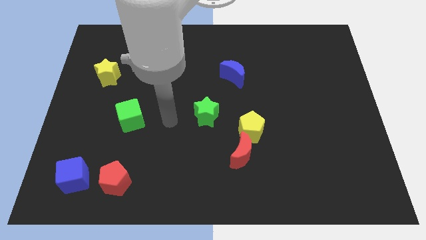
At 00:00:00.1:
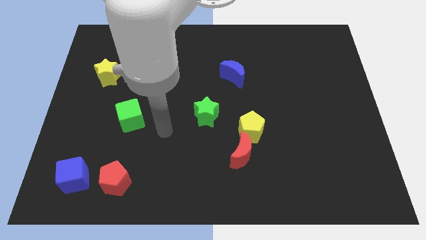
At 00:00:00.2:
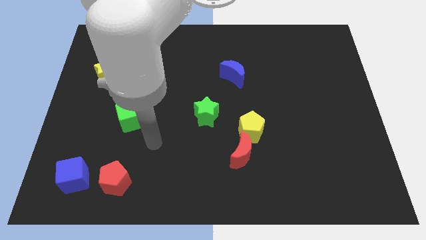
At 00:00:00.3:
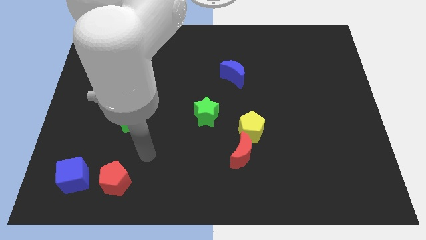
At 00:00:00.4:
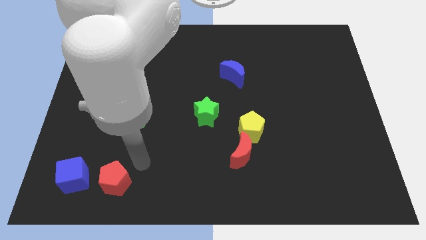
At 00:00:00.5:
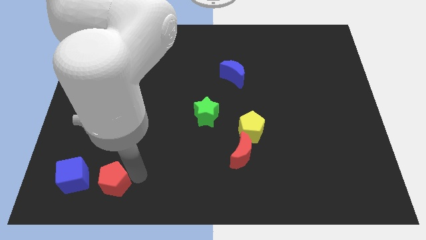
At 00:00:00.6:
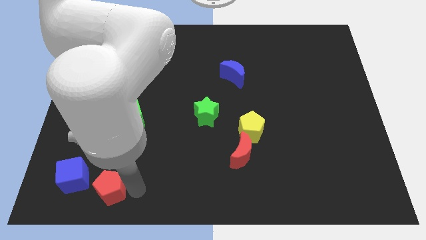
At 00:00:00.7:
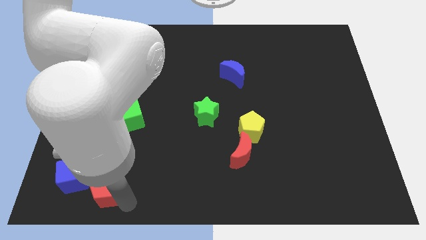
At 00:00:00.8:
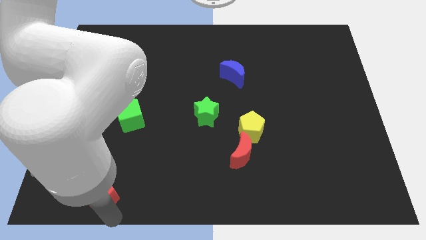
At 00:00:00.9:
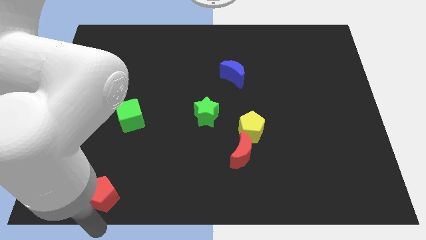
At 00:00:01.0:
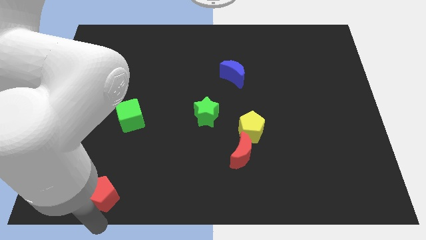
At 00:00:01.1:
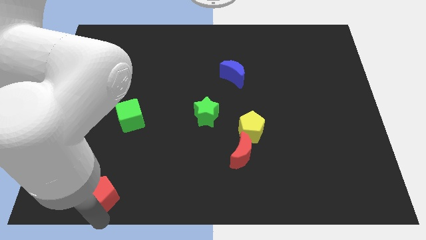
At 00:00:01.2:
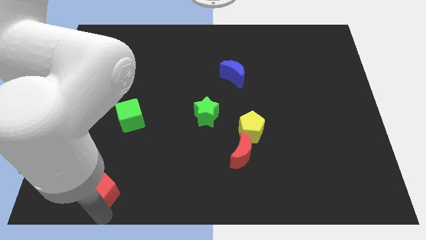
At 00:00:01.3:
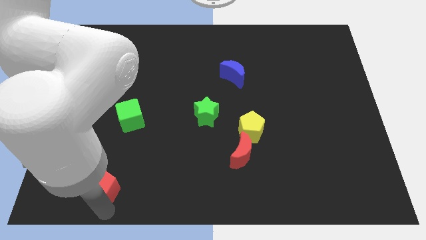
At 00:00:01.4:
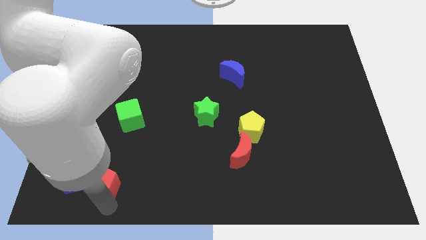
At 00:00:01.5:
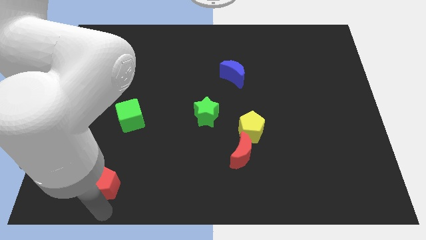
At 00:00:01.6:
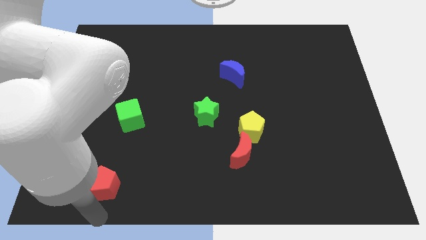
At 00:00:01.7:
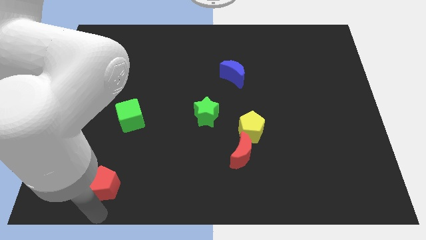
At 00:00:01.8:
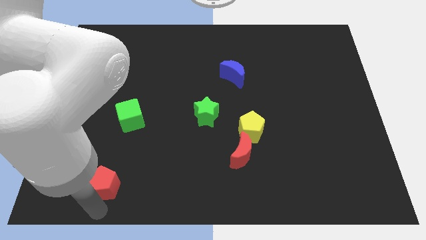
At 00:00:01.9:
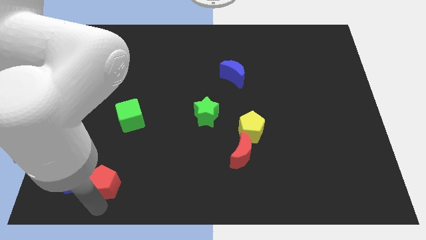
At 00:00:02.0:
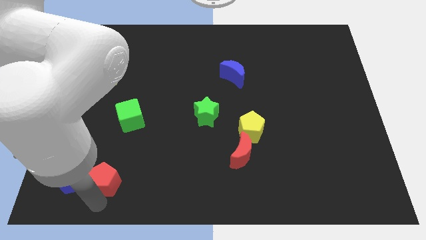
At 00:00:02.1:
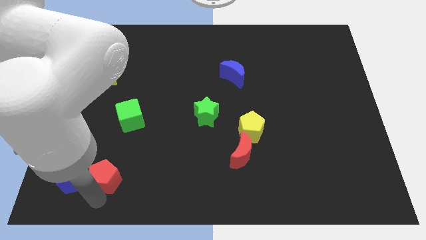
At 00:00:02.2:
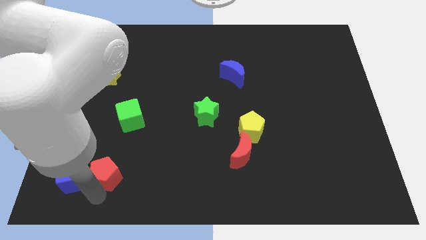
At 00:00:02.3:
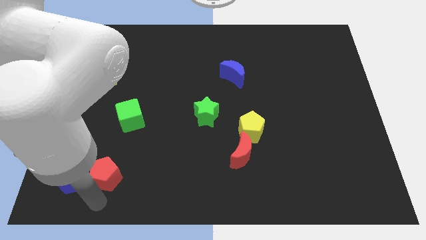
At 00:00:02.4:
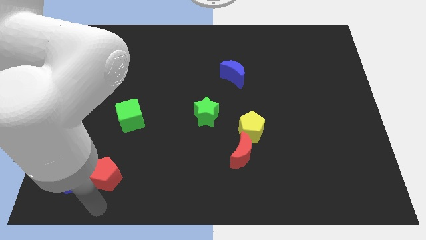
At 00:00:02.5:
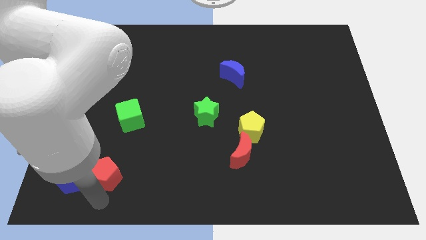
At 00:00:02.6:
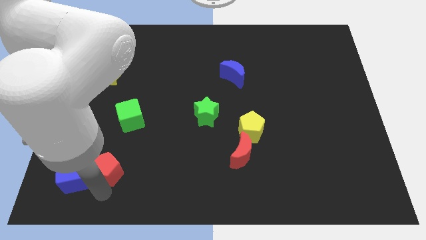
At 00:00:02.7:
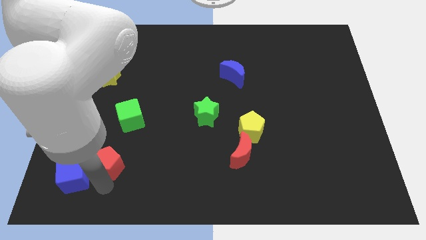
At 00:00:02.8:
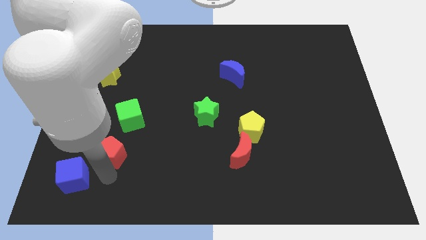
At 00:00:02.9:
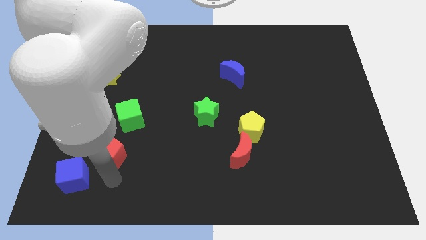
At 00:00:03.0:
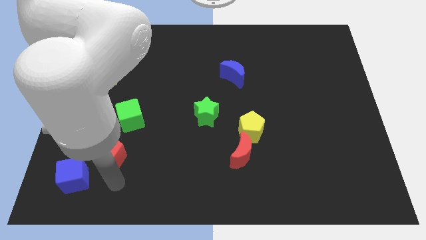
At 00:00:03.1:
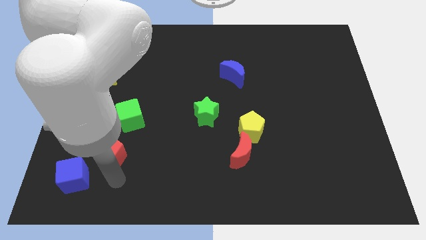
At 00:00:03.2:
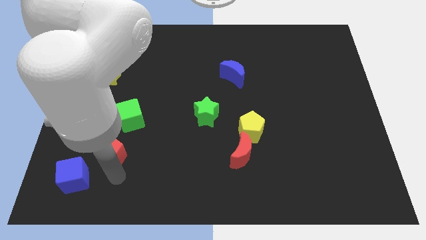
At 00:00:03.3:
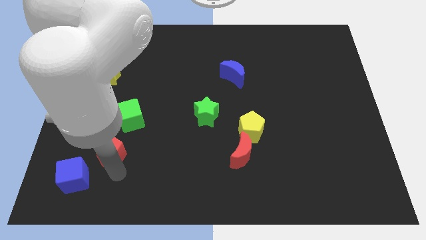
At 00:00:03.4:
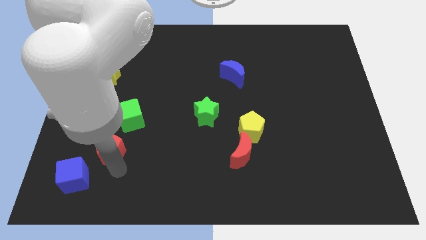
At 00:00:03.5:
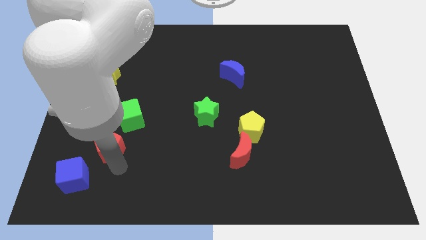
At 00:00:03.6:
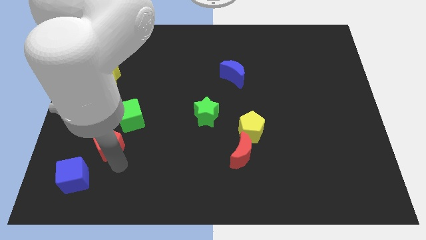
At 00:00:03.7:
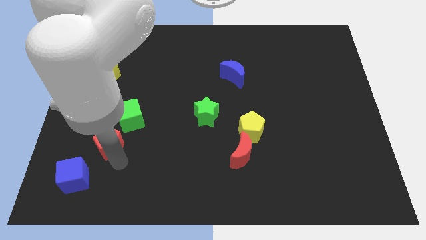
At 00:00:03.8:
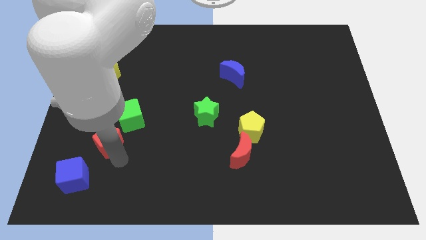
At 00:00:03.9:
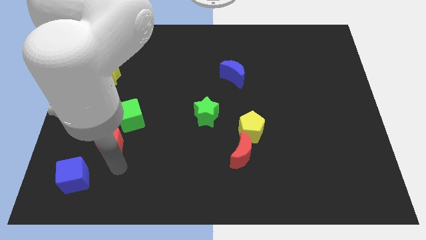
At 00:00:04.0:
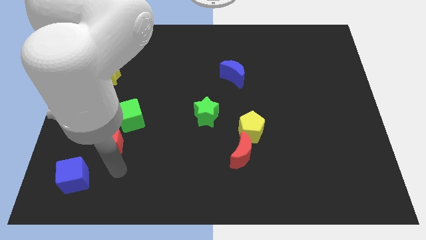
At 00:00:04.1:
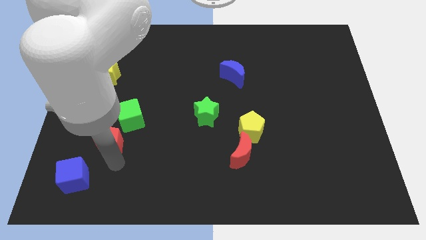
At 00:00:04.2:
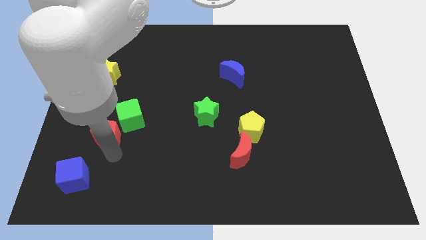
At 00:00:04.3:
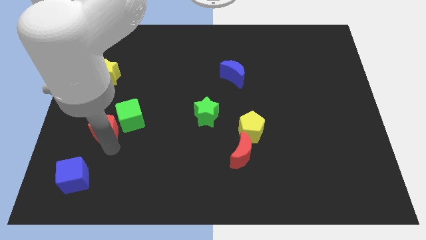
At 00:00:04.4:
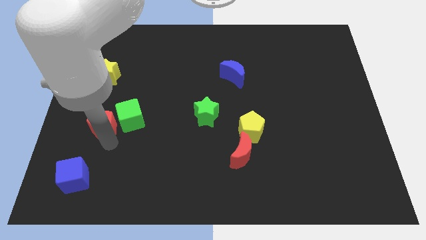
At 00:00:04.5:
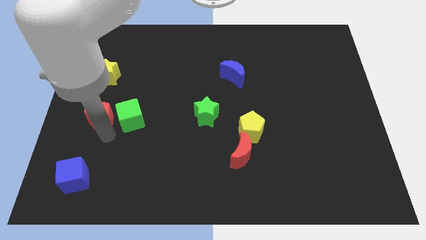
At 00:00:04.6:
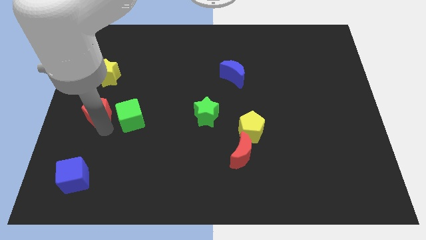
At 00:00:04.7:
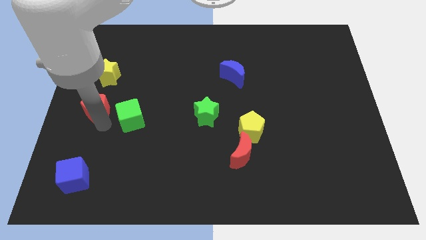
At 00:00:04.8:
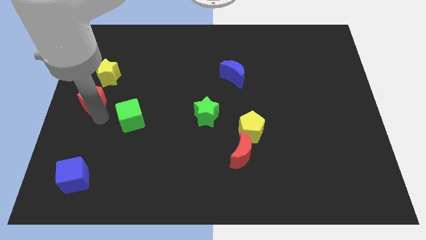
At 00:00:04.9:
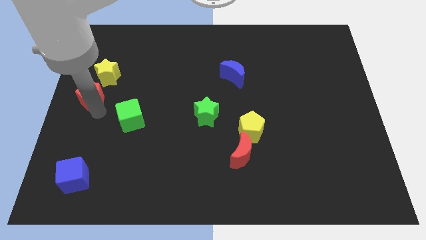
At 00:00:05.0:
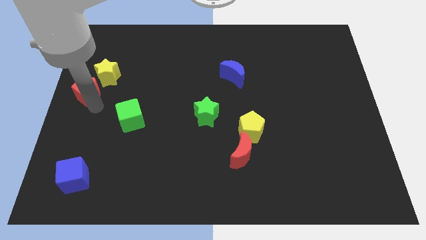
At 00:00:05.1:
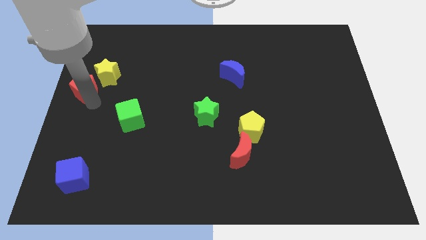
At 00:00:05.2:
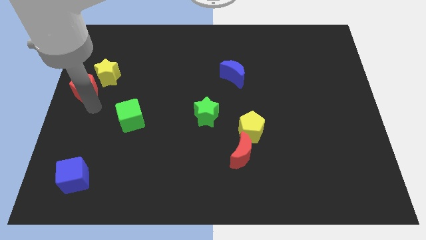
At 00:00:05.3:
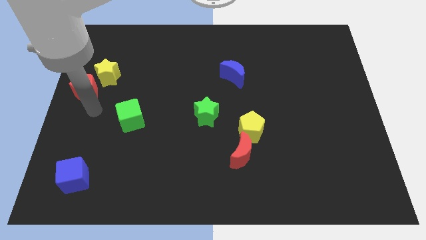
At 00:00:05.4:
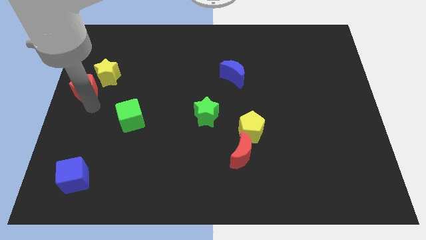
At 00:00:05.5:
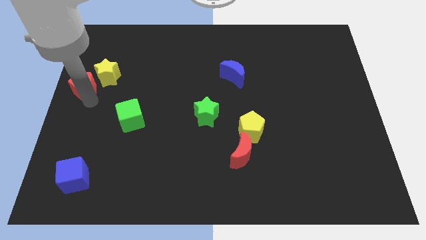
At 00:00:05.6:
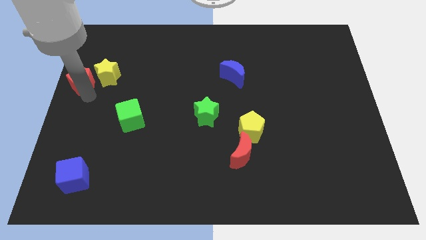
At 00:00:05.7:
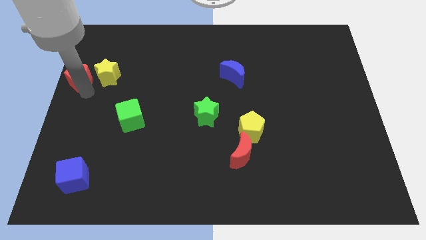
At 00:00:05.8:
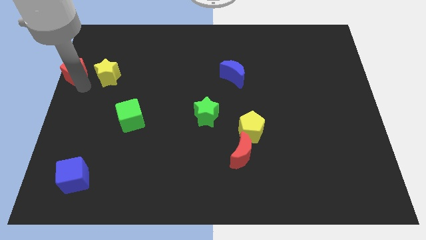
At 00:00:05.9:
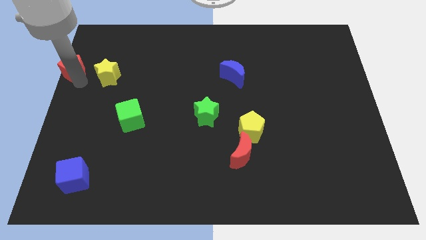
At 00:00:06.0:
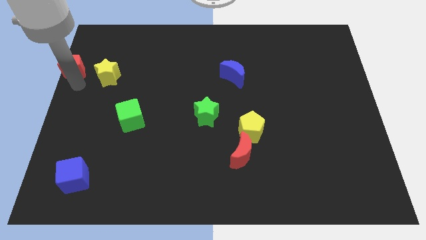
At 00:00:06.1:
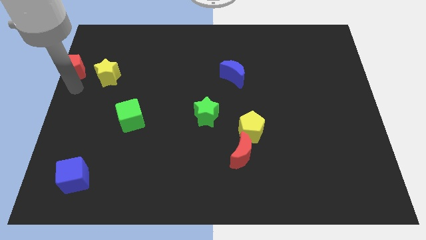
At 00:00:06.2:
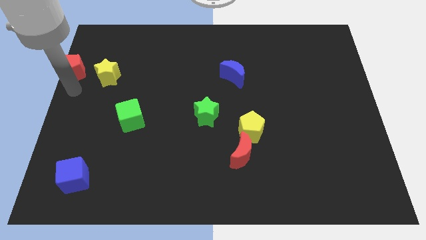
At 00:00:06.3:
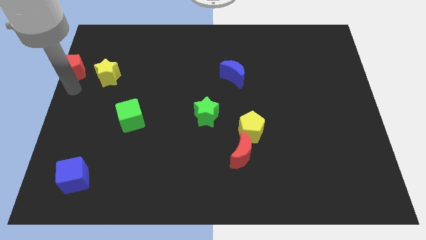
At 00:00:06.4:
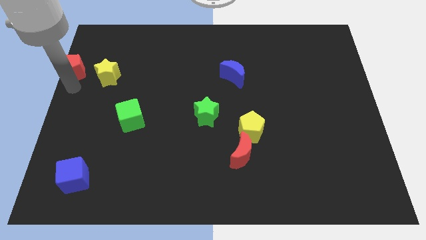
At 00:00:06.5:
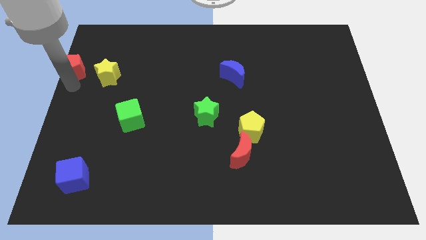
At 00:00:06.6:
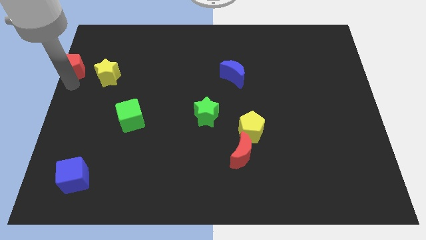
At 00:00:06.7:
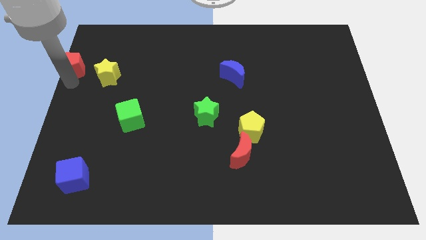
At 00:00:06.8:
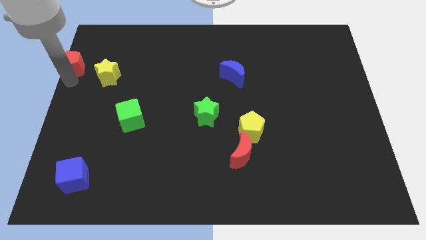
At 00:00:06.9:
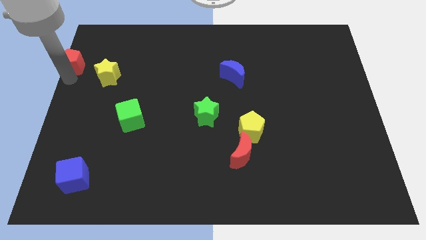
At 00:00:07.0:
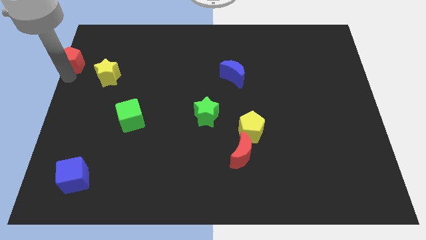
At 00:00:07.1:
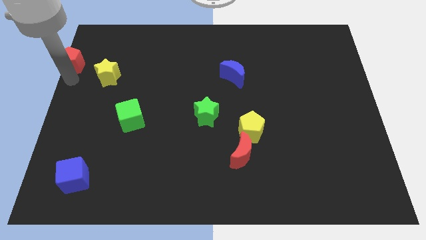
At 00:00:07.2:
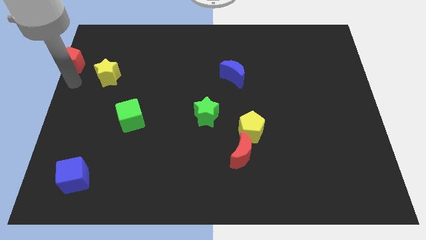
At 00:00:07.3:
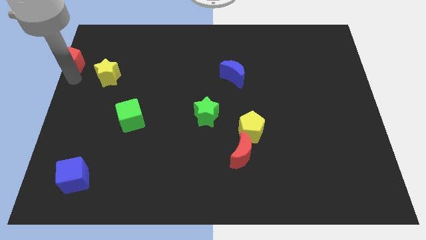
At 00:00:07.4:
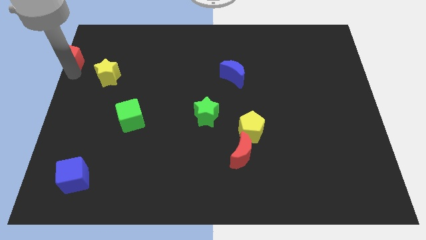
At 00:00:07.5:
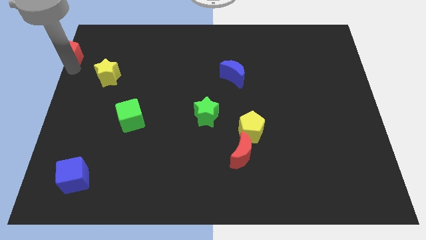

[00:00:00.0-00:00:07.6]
push the red pentagon to the top left
